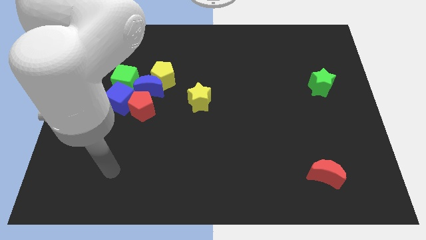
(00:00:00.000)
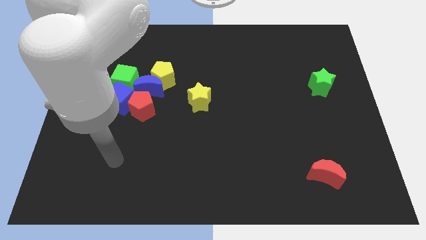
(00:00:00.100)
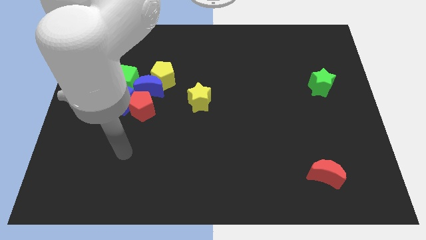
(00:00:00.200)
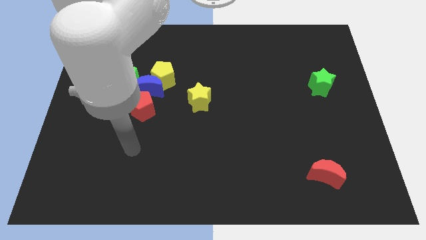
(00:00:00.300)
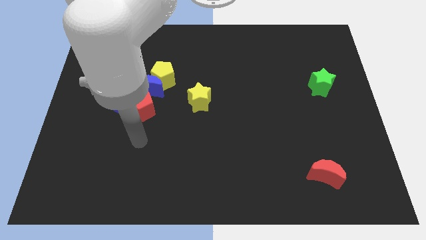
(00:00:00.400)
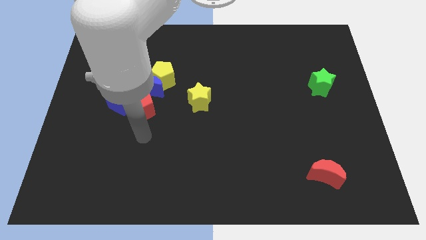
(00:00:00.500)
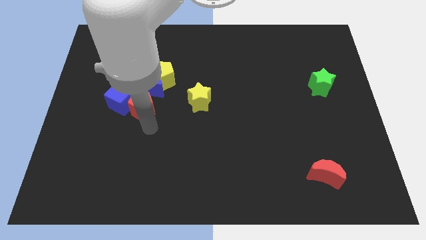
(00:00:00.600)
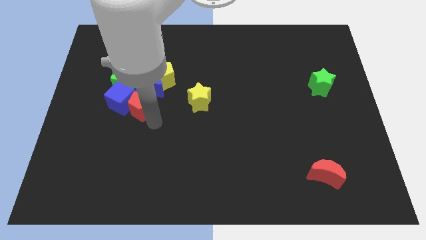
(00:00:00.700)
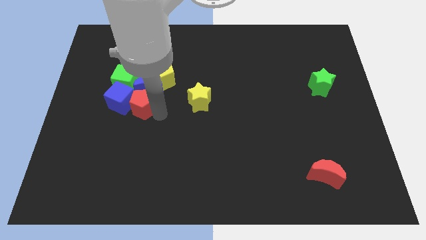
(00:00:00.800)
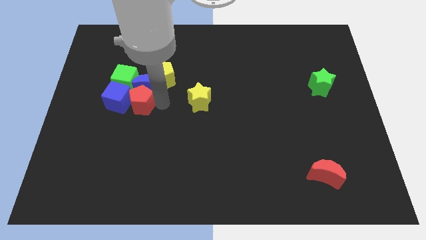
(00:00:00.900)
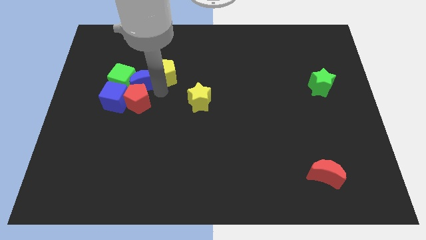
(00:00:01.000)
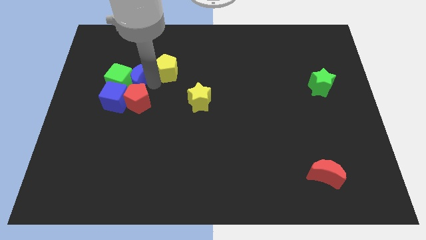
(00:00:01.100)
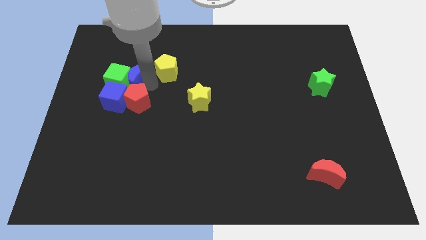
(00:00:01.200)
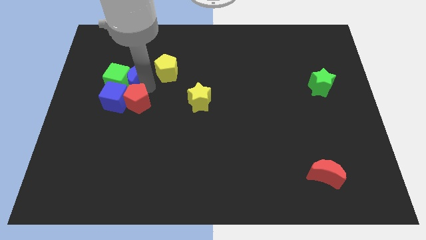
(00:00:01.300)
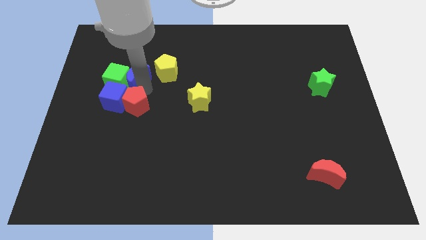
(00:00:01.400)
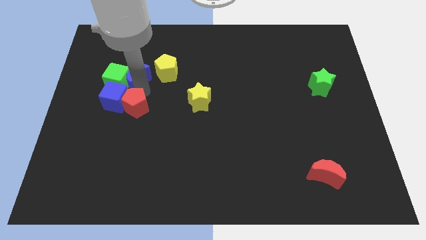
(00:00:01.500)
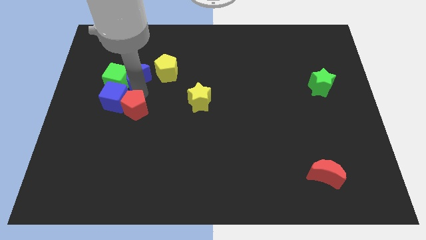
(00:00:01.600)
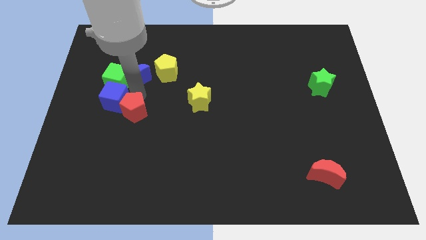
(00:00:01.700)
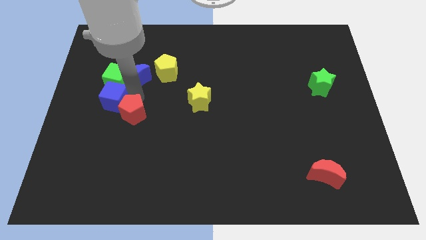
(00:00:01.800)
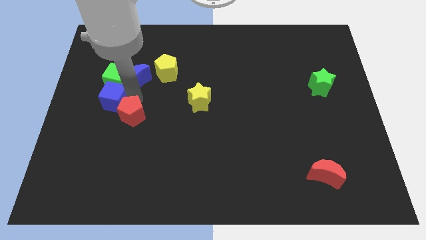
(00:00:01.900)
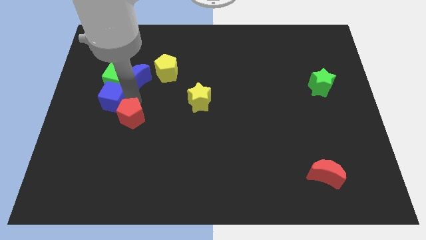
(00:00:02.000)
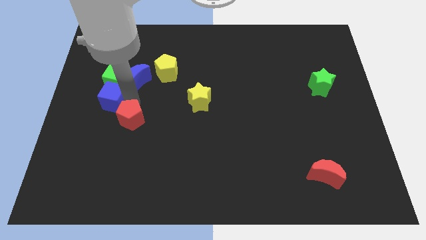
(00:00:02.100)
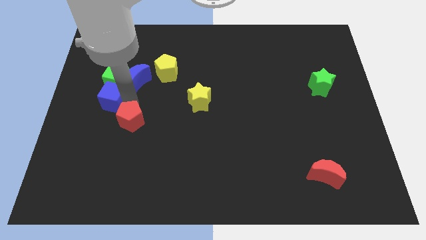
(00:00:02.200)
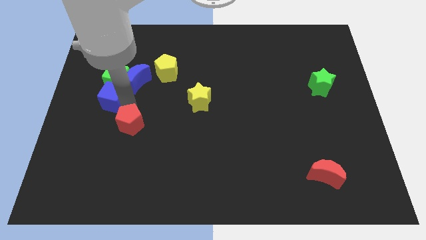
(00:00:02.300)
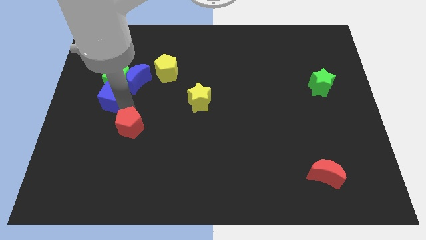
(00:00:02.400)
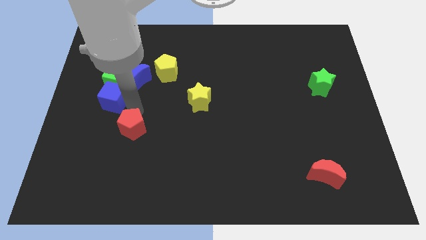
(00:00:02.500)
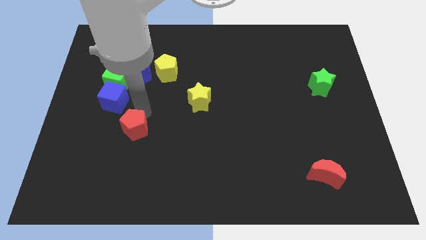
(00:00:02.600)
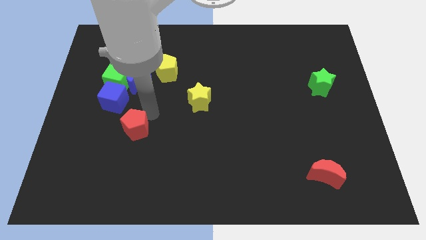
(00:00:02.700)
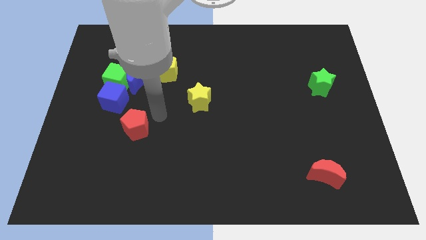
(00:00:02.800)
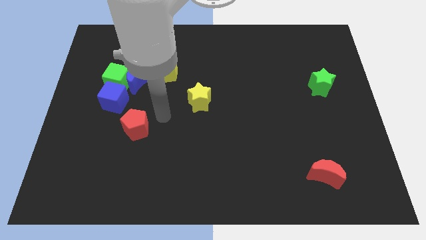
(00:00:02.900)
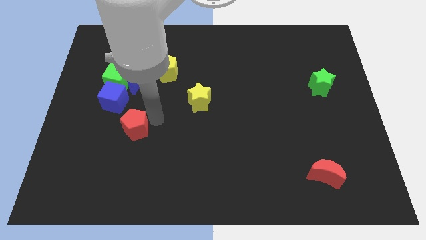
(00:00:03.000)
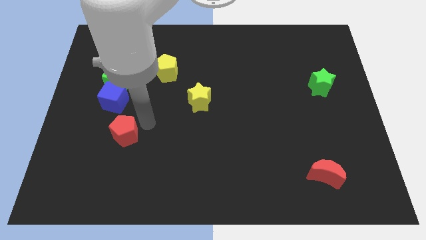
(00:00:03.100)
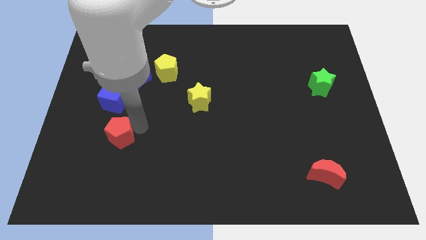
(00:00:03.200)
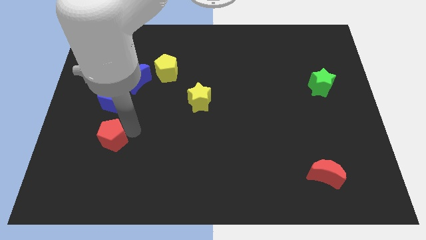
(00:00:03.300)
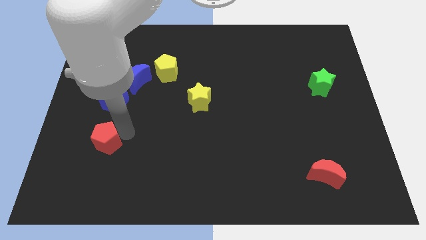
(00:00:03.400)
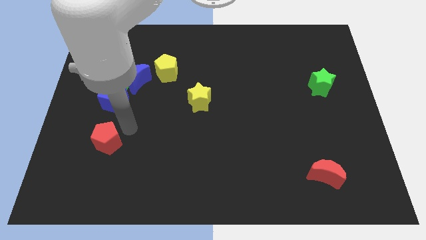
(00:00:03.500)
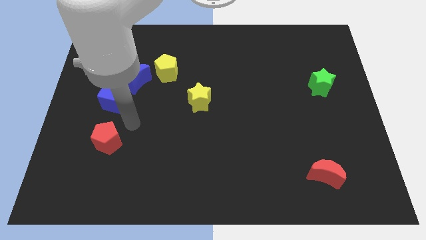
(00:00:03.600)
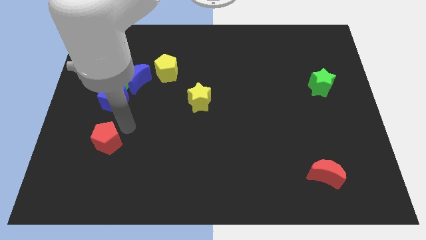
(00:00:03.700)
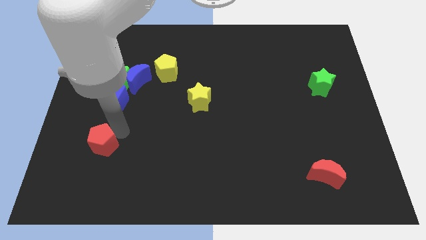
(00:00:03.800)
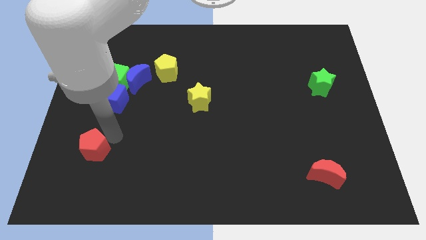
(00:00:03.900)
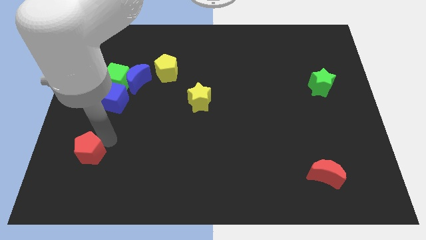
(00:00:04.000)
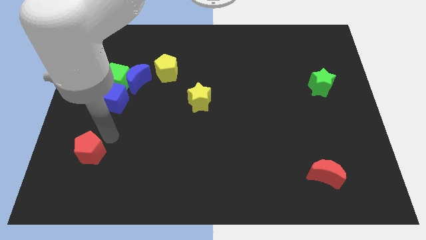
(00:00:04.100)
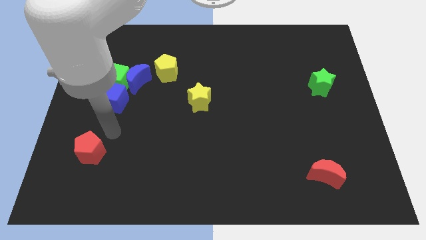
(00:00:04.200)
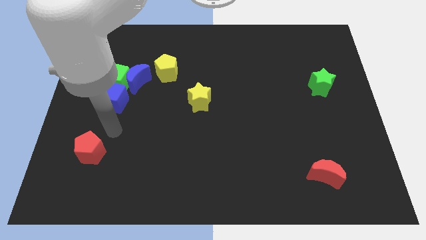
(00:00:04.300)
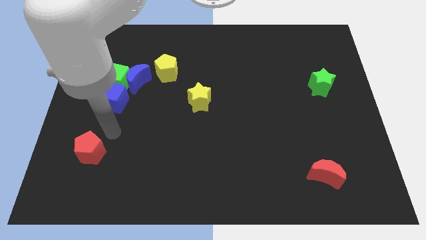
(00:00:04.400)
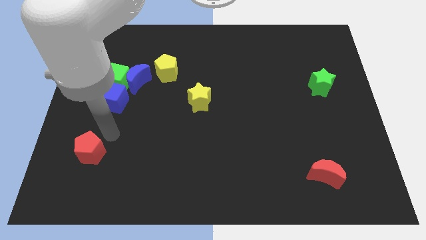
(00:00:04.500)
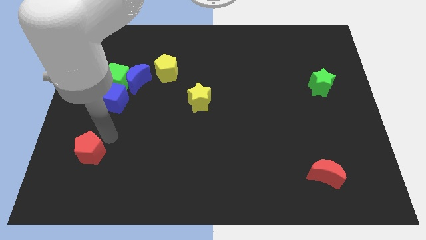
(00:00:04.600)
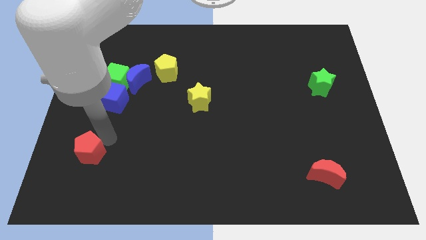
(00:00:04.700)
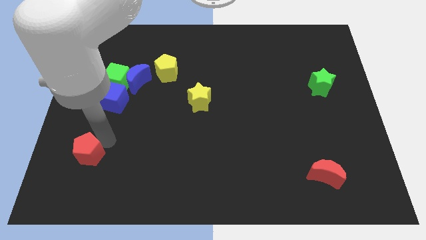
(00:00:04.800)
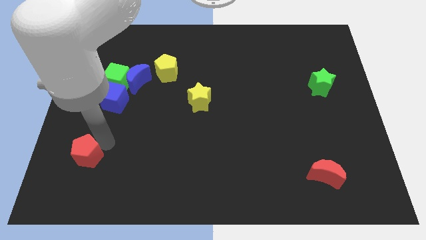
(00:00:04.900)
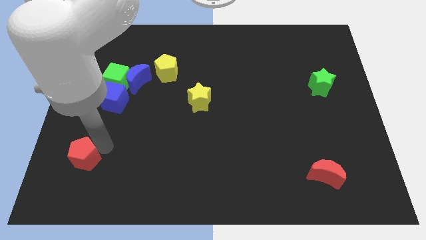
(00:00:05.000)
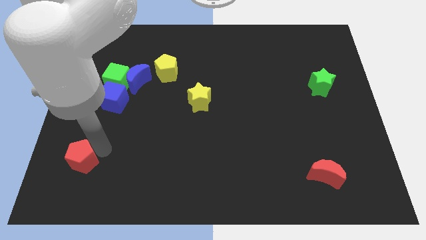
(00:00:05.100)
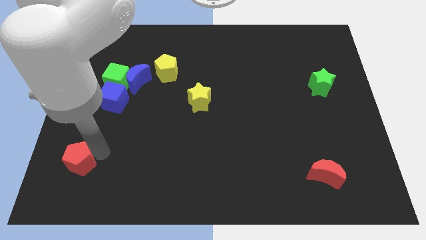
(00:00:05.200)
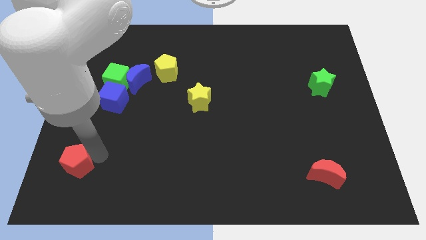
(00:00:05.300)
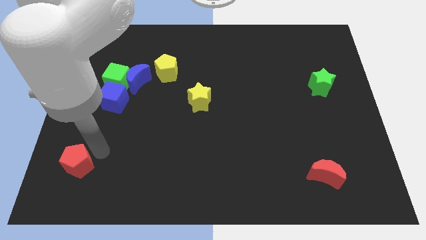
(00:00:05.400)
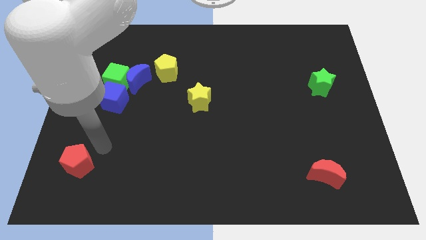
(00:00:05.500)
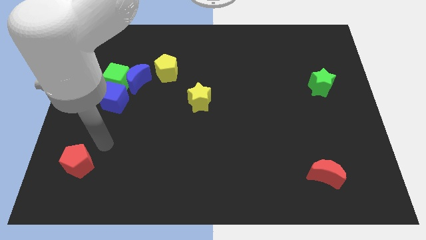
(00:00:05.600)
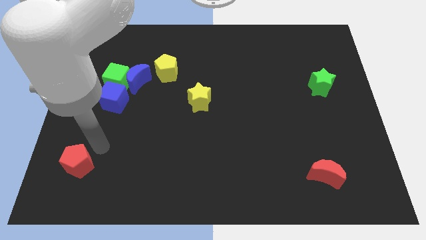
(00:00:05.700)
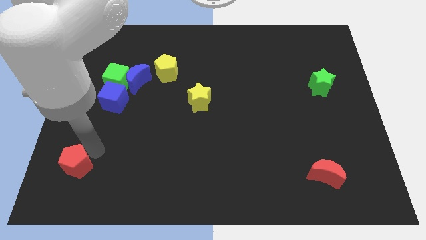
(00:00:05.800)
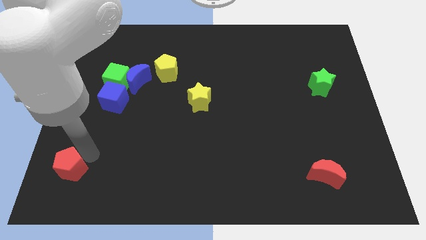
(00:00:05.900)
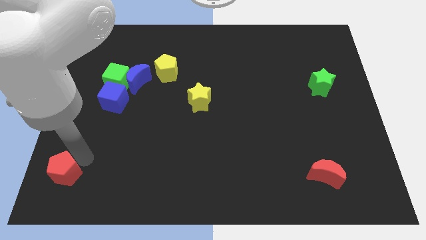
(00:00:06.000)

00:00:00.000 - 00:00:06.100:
push the red pentagon to the lower left corner
